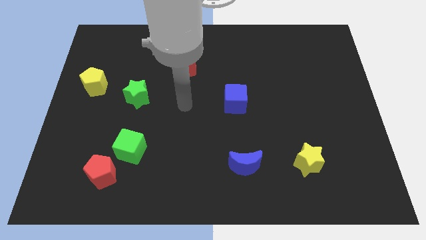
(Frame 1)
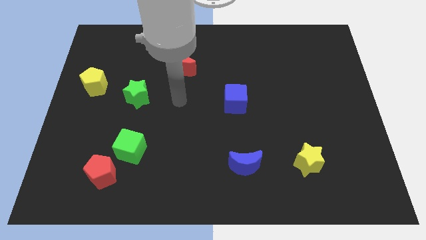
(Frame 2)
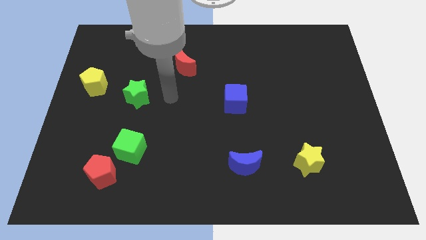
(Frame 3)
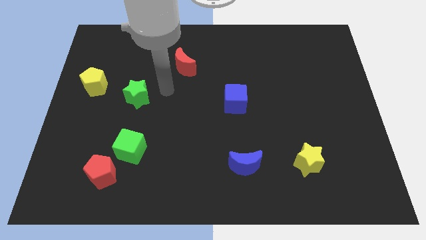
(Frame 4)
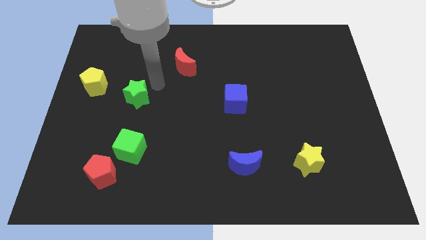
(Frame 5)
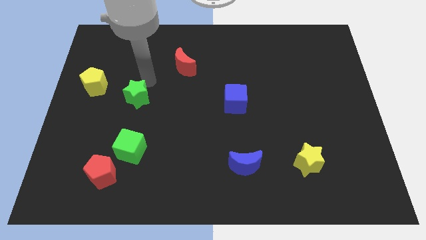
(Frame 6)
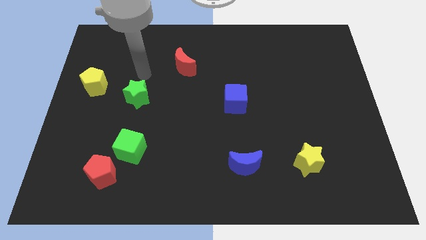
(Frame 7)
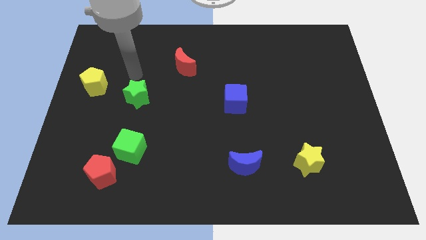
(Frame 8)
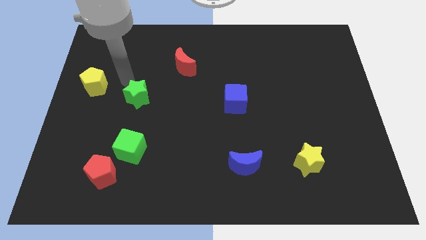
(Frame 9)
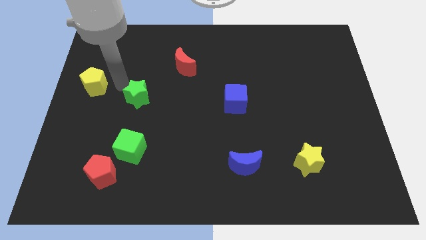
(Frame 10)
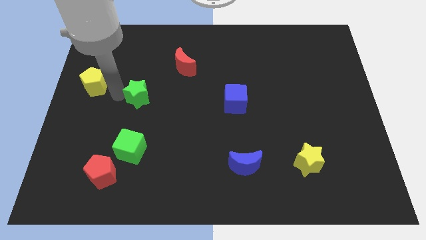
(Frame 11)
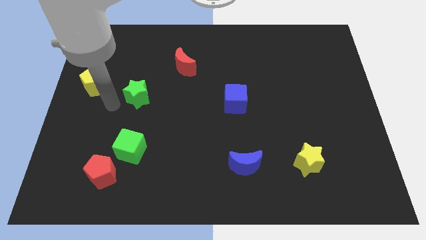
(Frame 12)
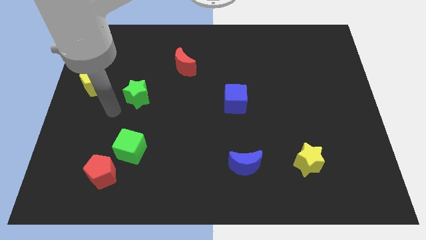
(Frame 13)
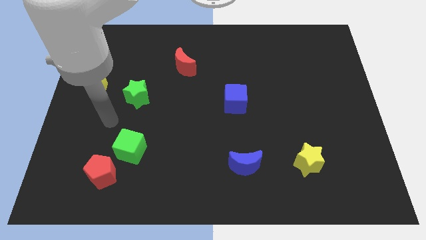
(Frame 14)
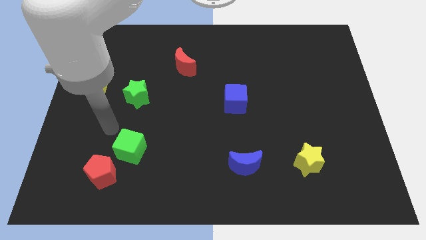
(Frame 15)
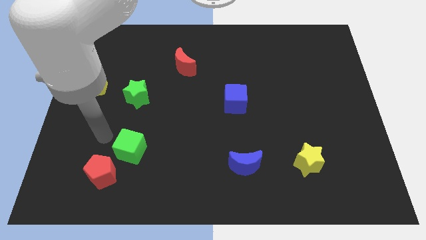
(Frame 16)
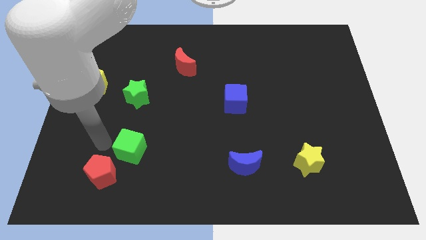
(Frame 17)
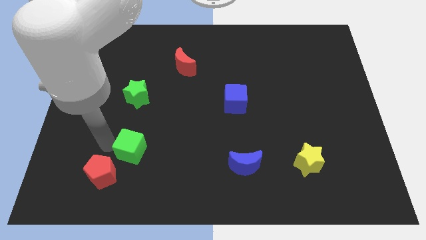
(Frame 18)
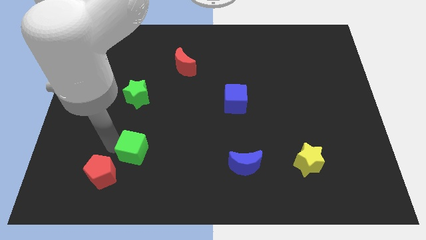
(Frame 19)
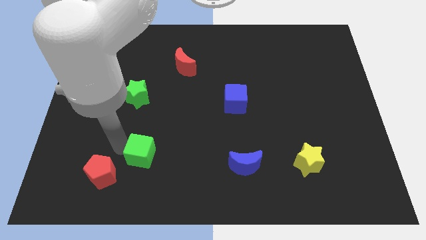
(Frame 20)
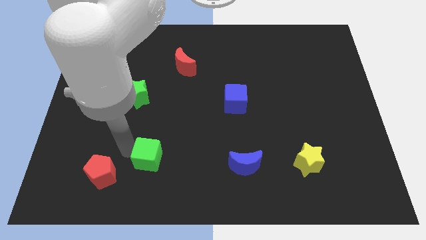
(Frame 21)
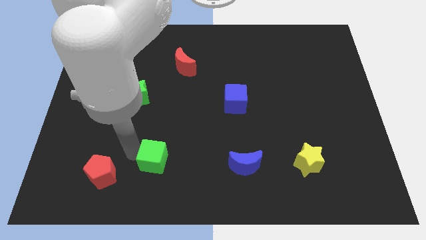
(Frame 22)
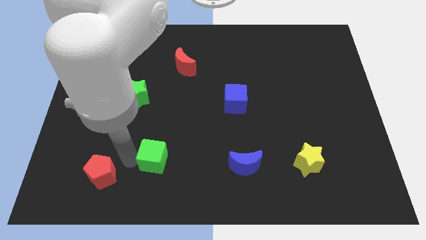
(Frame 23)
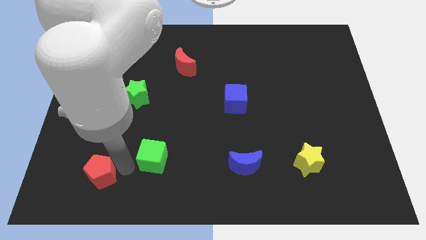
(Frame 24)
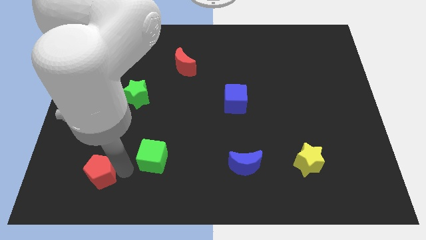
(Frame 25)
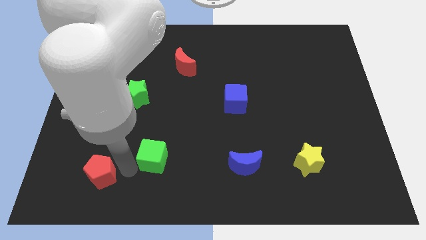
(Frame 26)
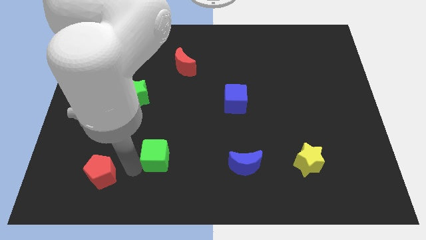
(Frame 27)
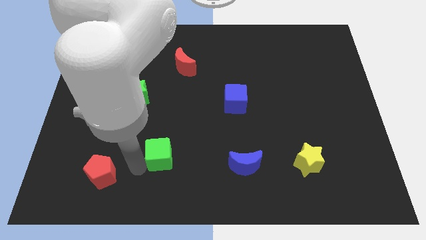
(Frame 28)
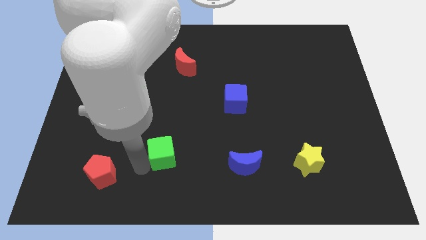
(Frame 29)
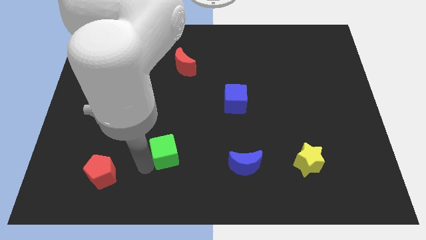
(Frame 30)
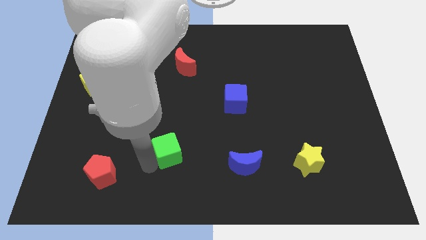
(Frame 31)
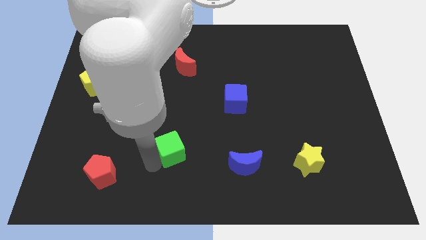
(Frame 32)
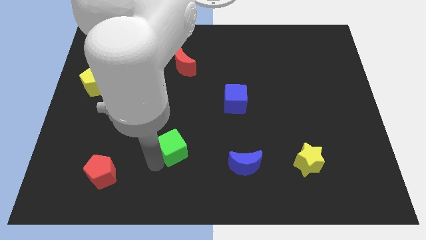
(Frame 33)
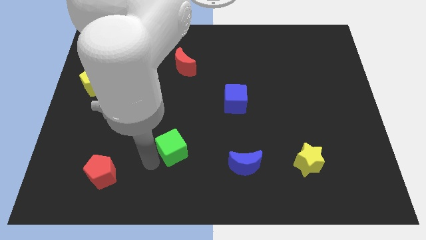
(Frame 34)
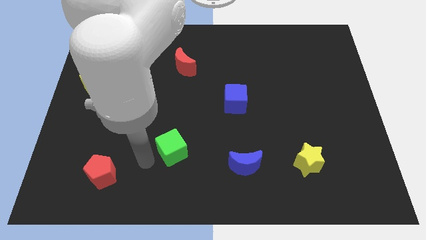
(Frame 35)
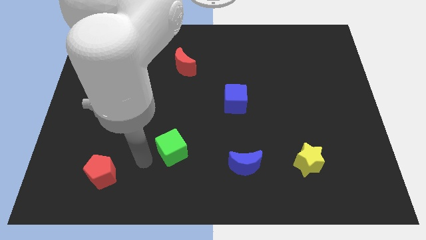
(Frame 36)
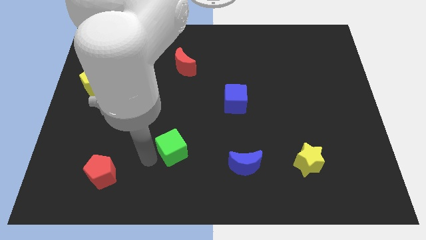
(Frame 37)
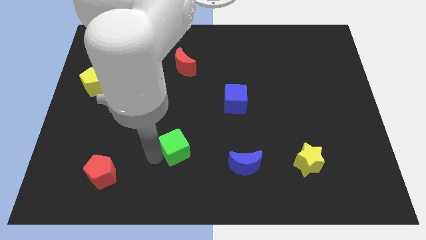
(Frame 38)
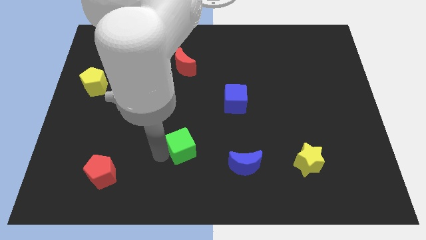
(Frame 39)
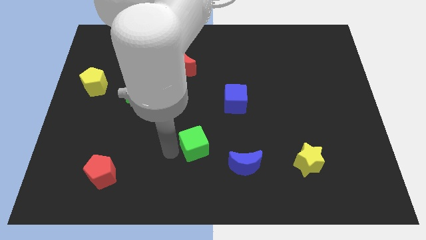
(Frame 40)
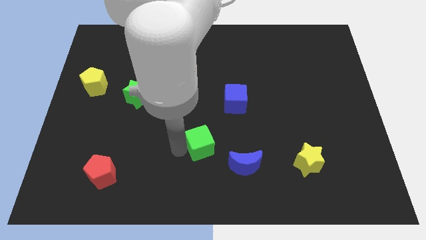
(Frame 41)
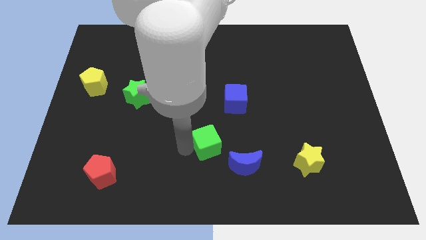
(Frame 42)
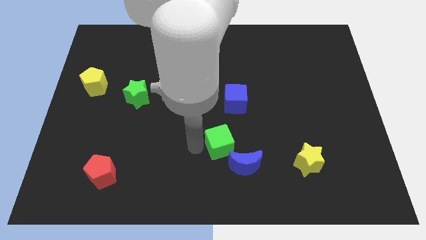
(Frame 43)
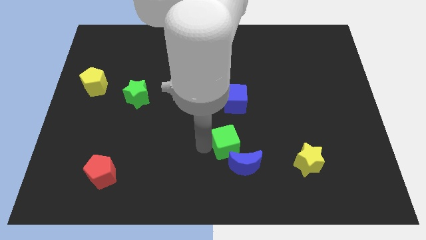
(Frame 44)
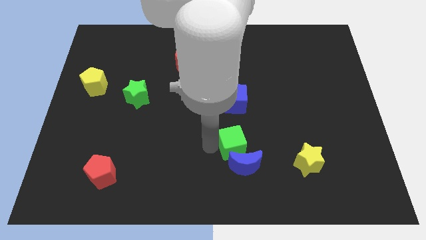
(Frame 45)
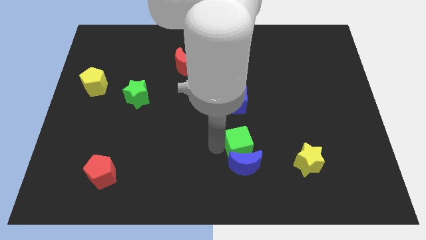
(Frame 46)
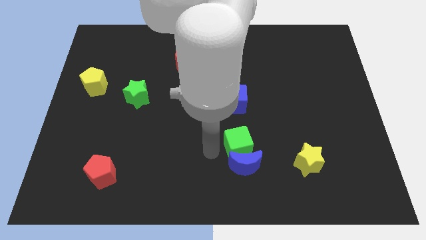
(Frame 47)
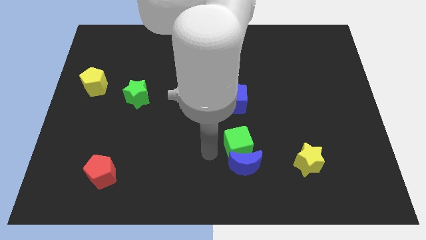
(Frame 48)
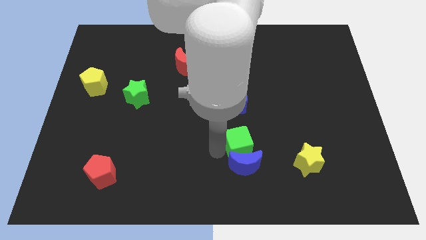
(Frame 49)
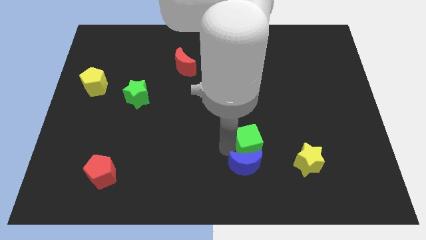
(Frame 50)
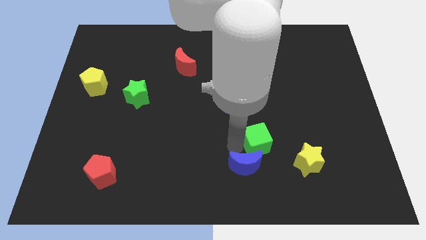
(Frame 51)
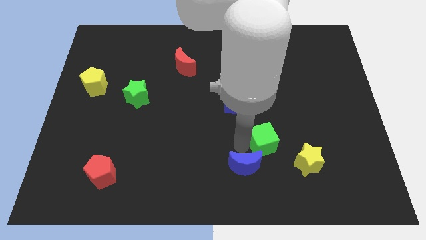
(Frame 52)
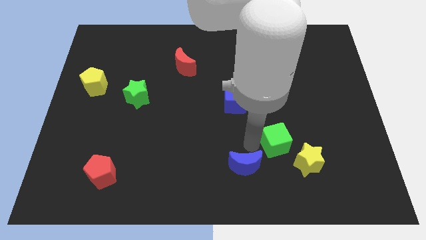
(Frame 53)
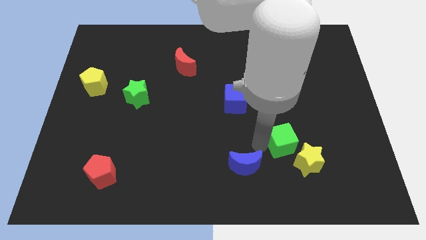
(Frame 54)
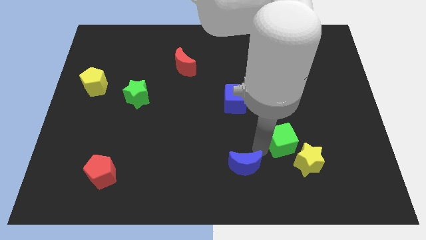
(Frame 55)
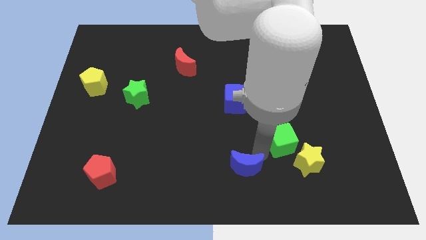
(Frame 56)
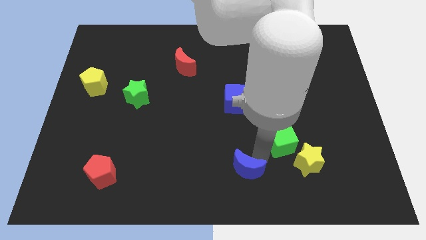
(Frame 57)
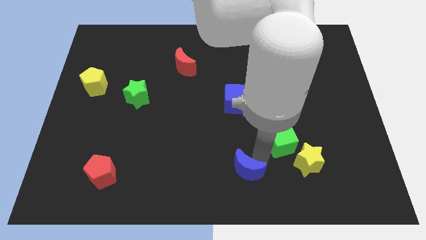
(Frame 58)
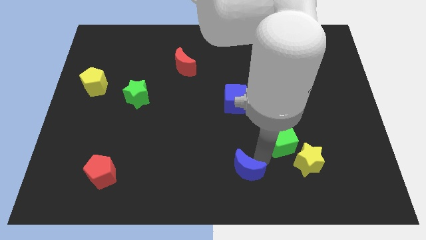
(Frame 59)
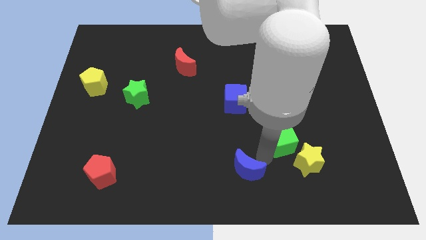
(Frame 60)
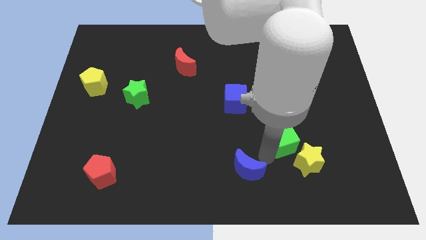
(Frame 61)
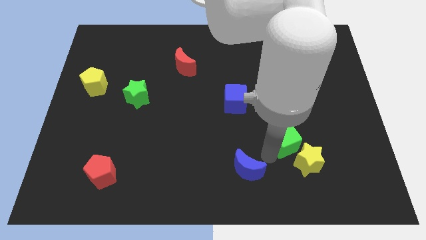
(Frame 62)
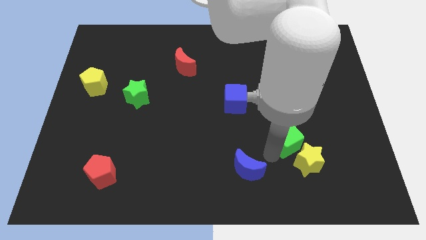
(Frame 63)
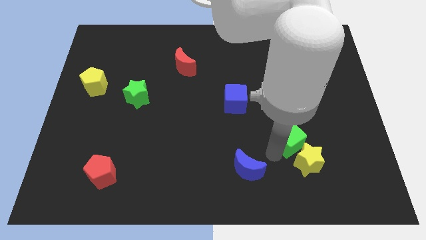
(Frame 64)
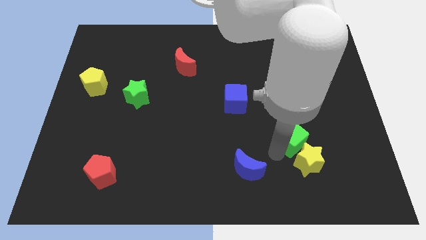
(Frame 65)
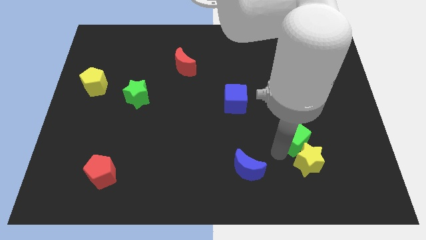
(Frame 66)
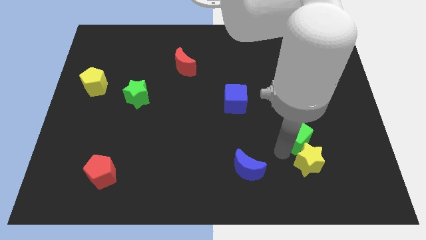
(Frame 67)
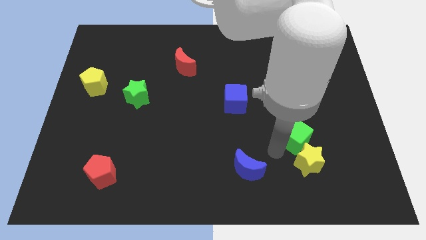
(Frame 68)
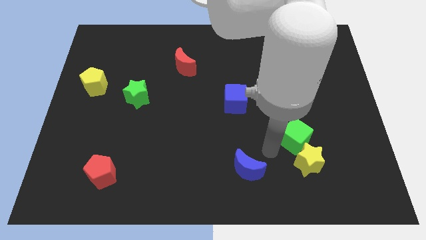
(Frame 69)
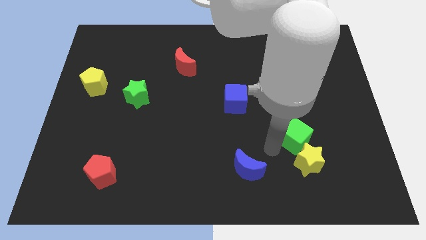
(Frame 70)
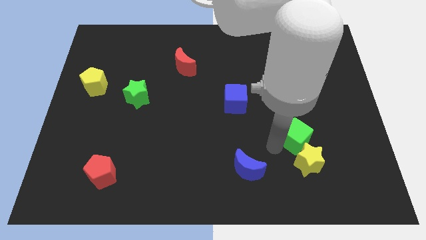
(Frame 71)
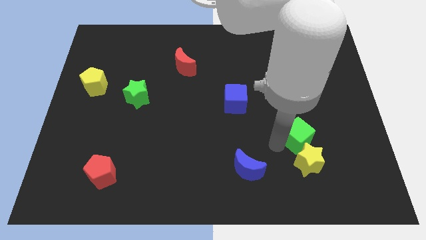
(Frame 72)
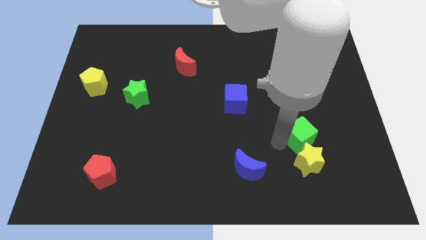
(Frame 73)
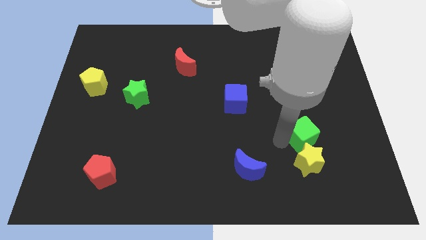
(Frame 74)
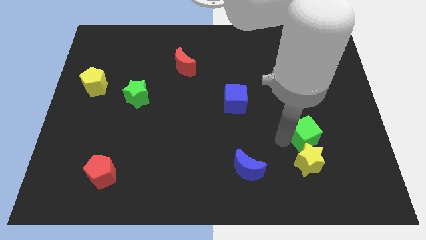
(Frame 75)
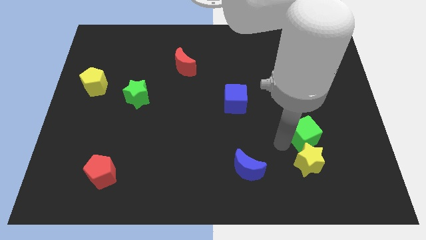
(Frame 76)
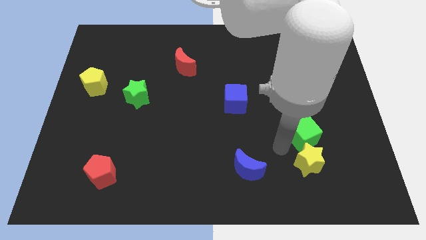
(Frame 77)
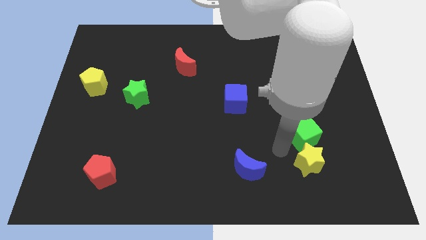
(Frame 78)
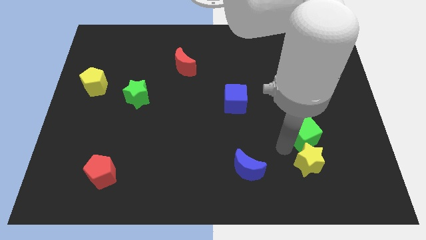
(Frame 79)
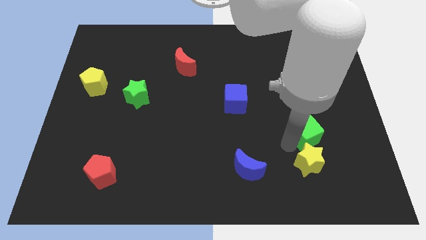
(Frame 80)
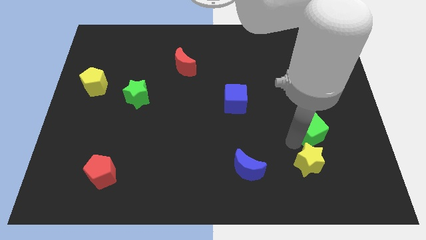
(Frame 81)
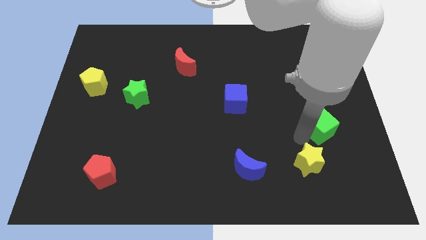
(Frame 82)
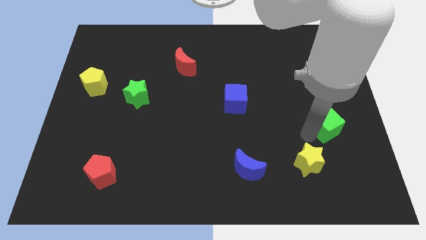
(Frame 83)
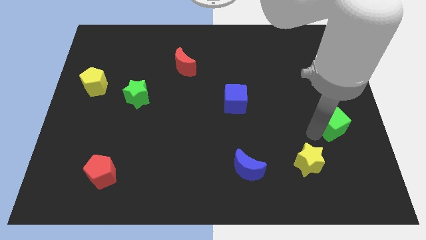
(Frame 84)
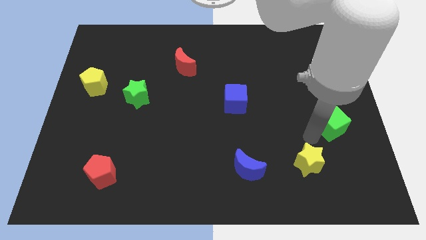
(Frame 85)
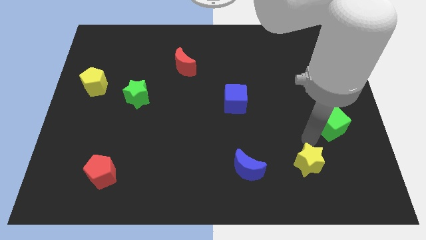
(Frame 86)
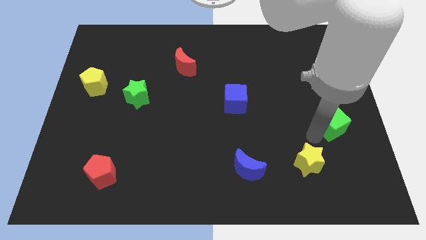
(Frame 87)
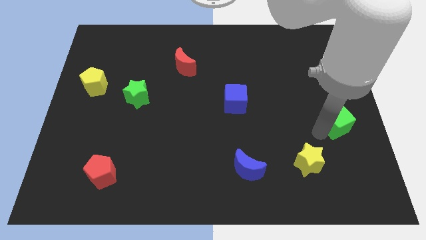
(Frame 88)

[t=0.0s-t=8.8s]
push the green cube to the right side of the board
